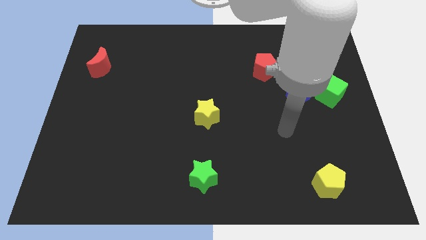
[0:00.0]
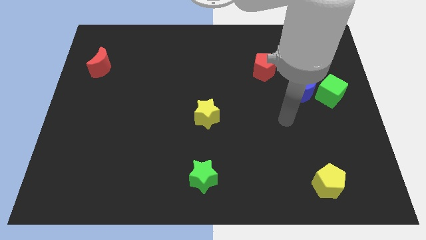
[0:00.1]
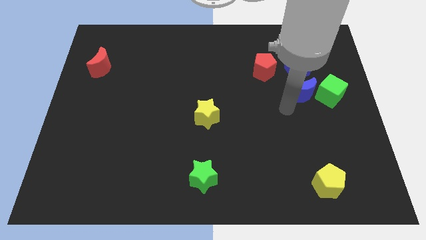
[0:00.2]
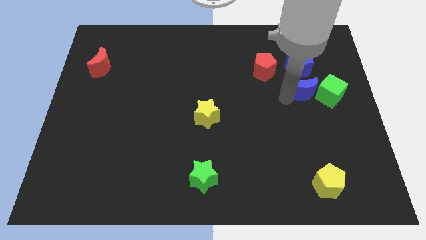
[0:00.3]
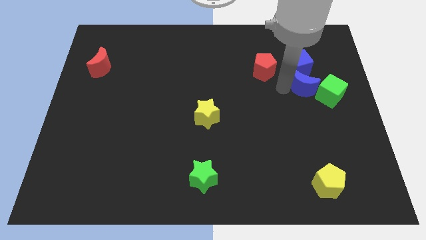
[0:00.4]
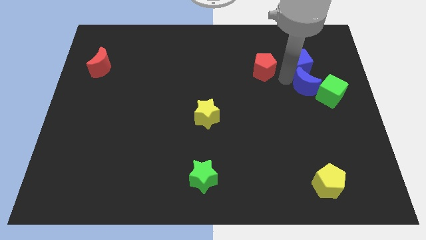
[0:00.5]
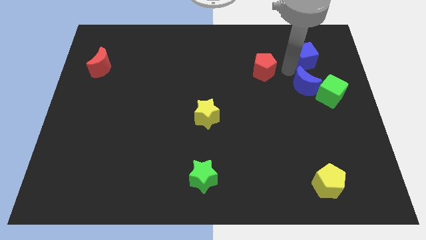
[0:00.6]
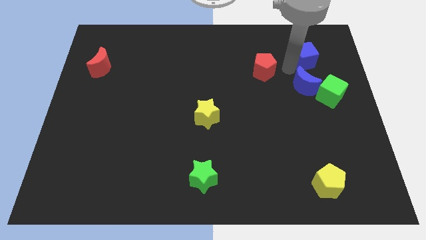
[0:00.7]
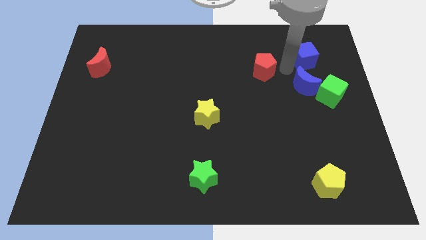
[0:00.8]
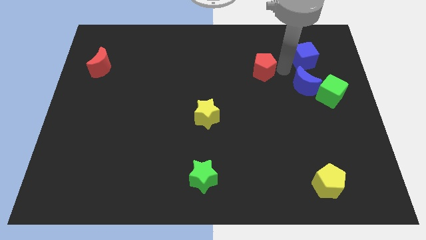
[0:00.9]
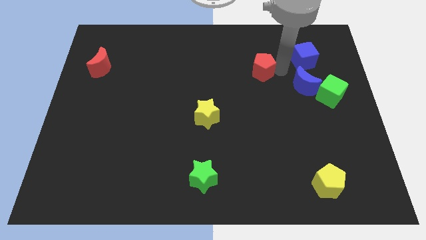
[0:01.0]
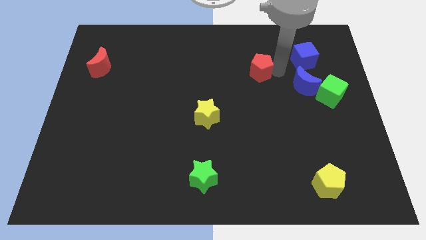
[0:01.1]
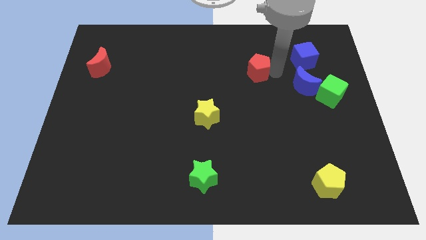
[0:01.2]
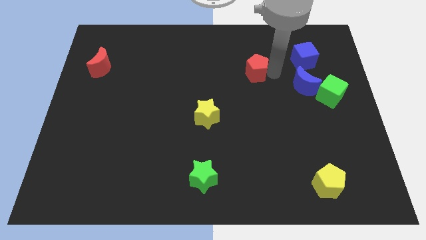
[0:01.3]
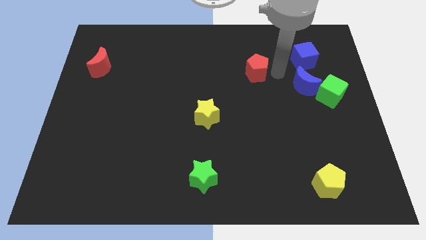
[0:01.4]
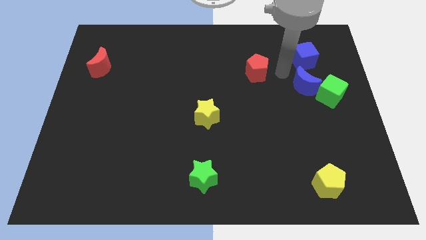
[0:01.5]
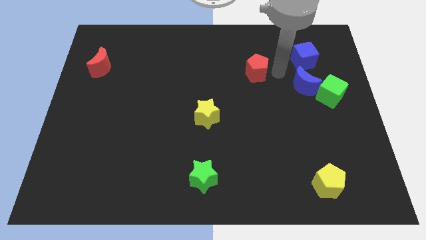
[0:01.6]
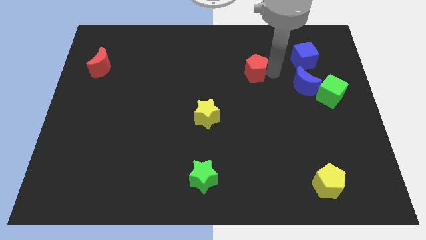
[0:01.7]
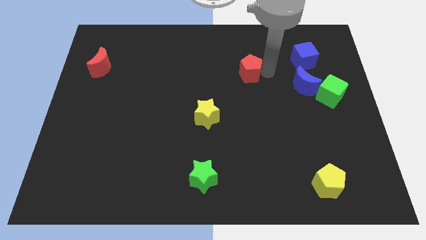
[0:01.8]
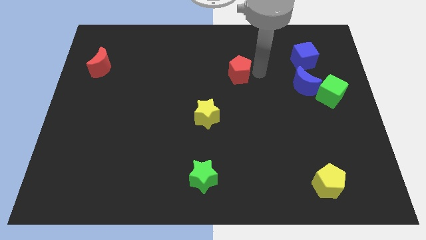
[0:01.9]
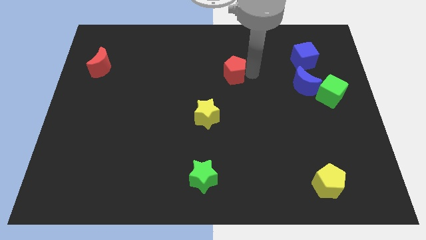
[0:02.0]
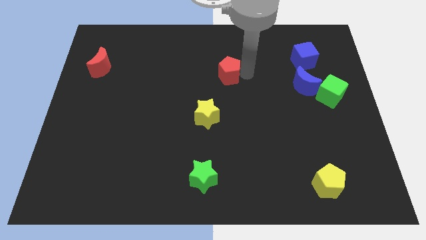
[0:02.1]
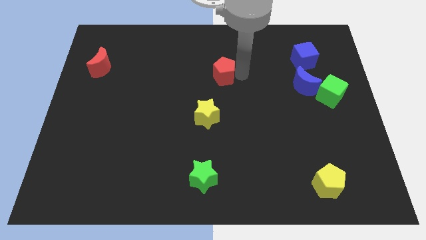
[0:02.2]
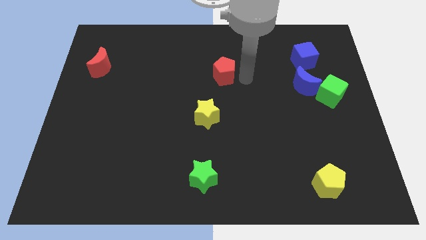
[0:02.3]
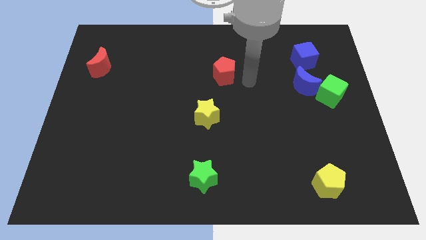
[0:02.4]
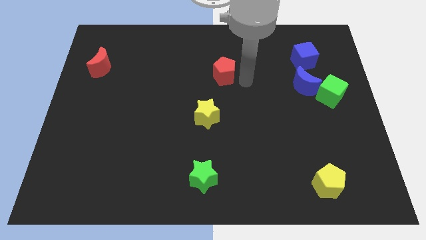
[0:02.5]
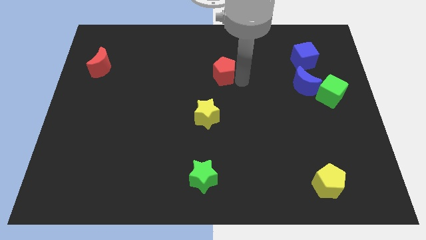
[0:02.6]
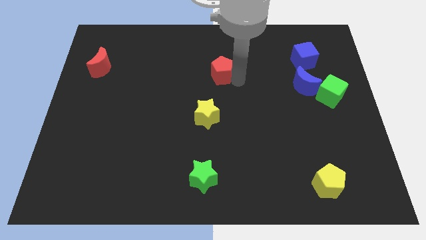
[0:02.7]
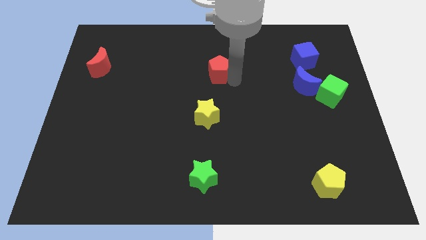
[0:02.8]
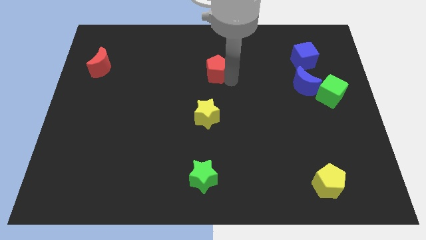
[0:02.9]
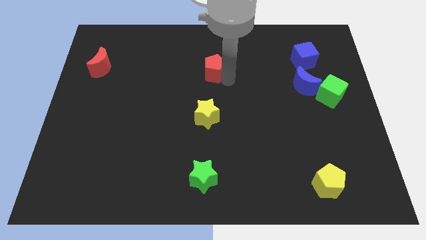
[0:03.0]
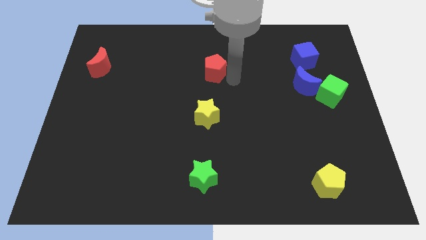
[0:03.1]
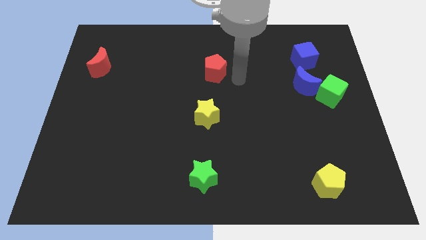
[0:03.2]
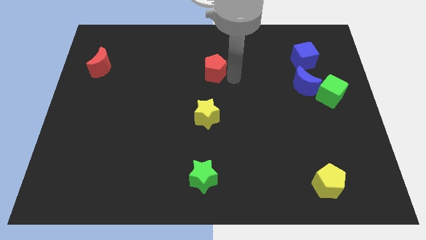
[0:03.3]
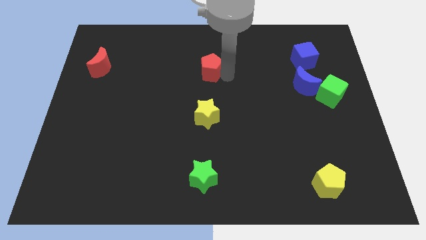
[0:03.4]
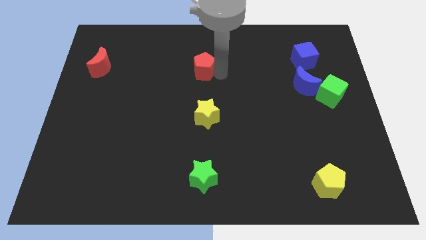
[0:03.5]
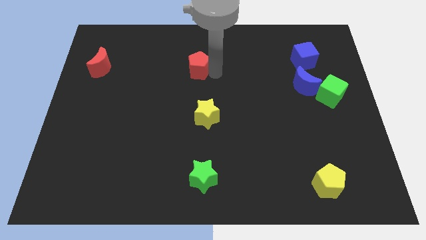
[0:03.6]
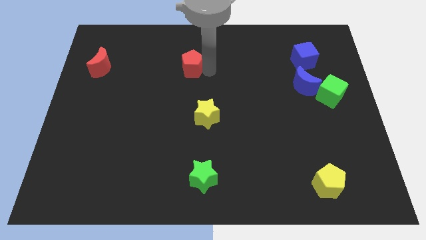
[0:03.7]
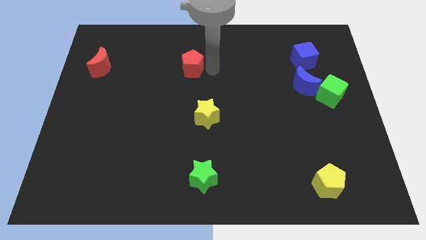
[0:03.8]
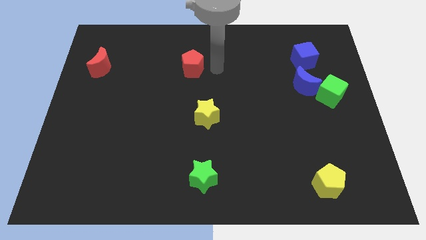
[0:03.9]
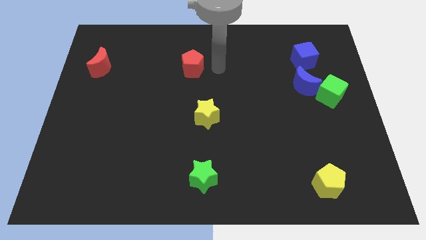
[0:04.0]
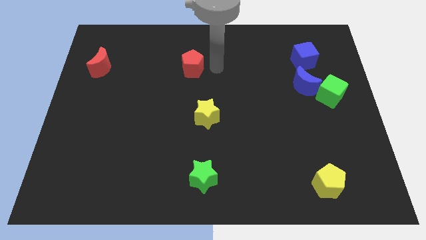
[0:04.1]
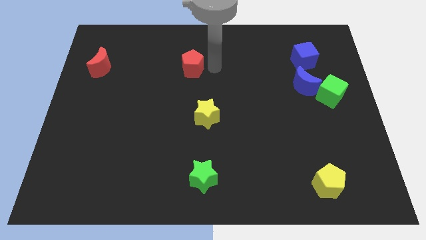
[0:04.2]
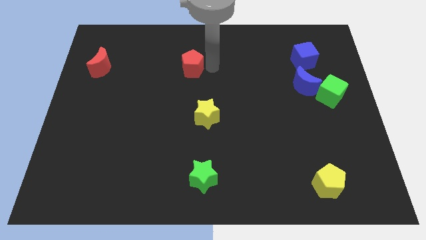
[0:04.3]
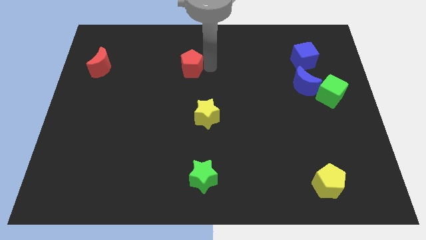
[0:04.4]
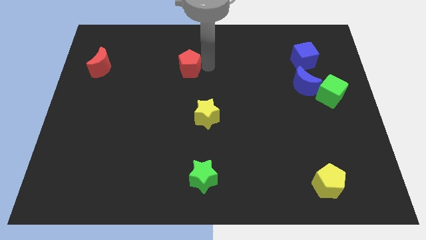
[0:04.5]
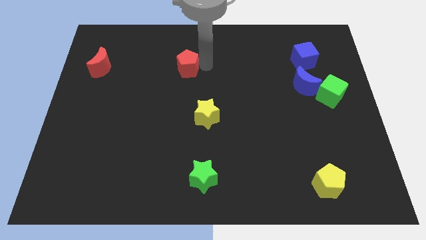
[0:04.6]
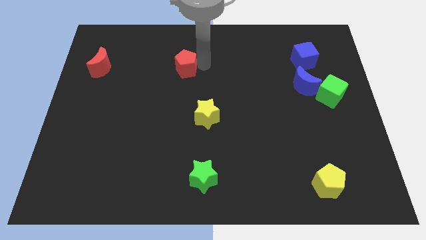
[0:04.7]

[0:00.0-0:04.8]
slide the red pentagon left

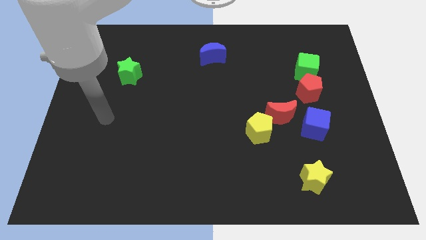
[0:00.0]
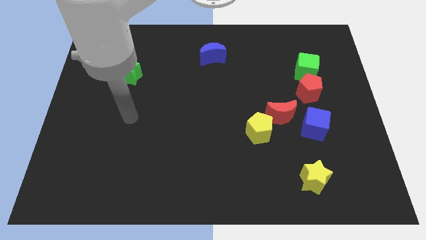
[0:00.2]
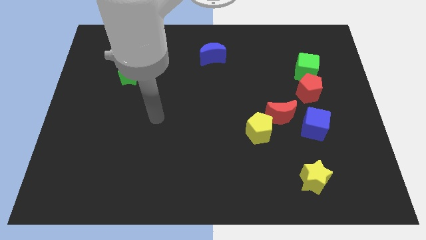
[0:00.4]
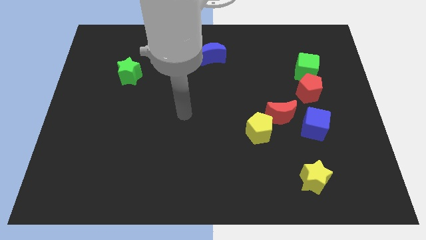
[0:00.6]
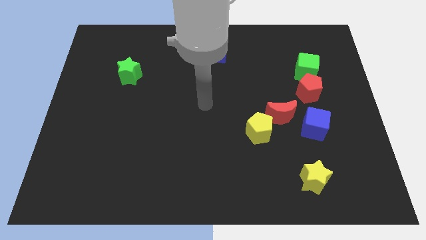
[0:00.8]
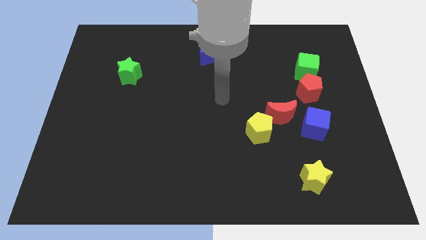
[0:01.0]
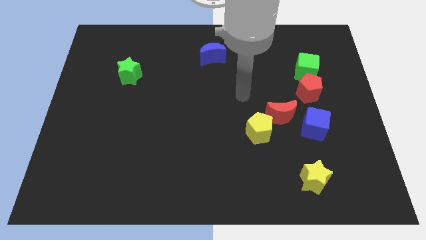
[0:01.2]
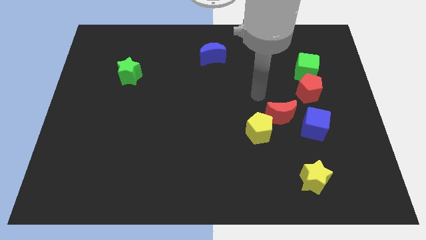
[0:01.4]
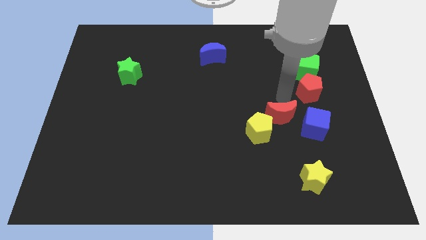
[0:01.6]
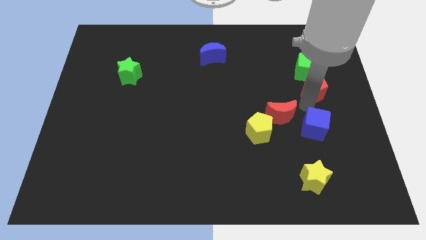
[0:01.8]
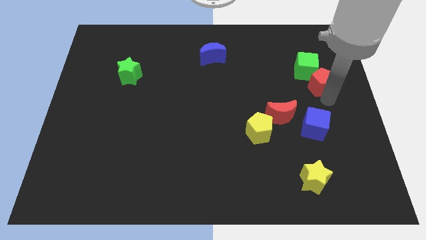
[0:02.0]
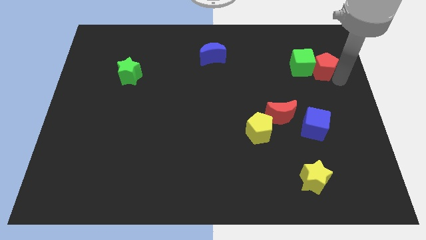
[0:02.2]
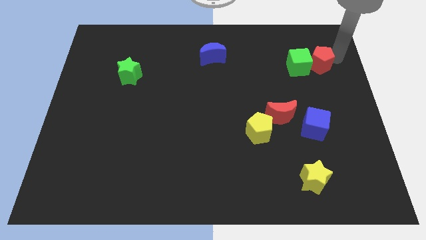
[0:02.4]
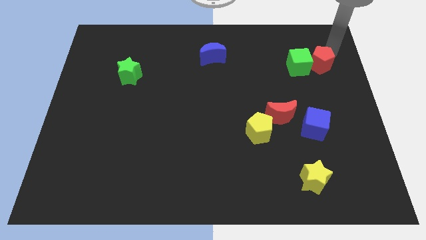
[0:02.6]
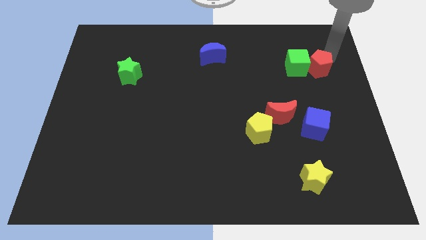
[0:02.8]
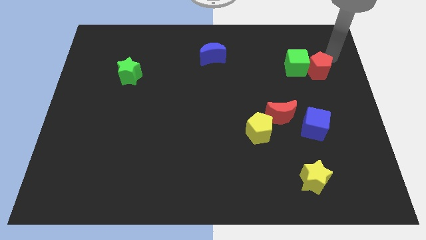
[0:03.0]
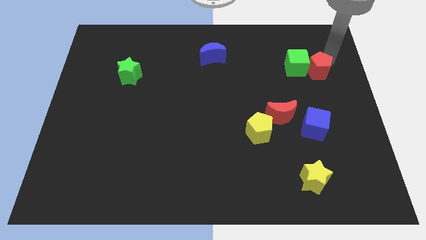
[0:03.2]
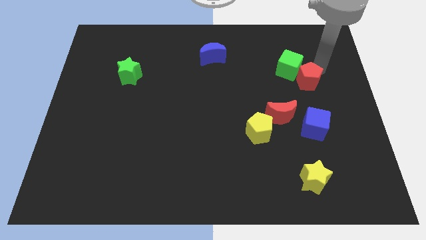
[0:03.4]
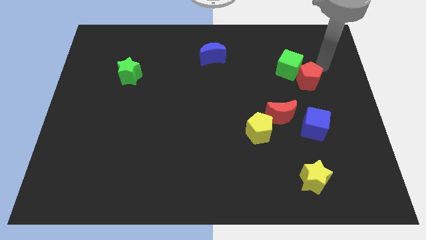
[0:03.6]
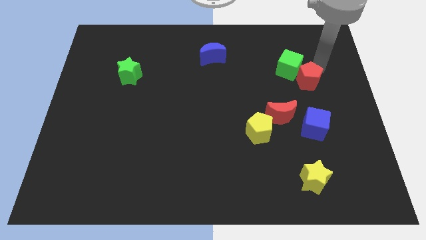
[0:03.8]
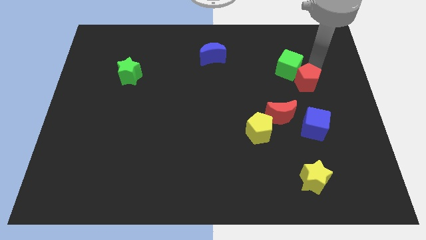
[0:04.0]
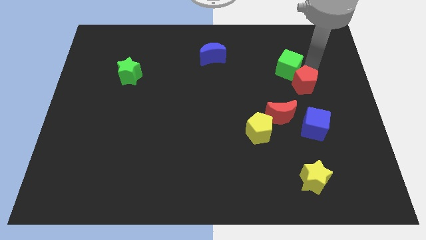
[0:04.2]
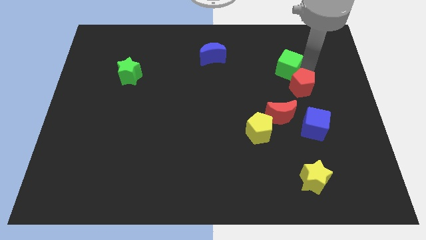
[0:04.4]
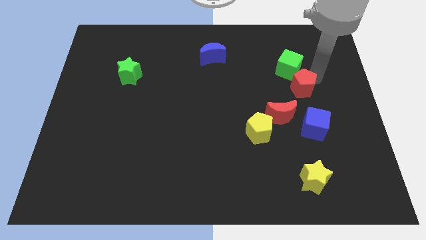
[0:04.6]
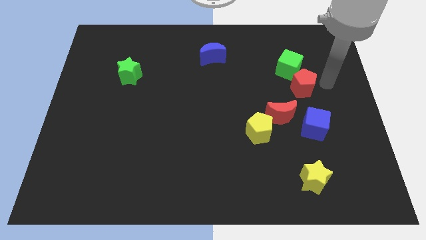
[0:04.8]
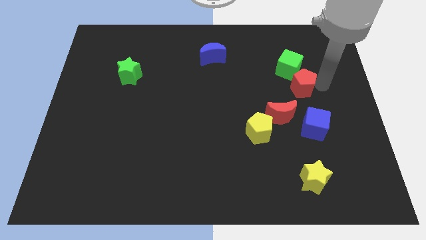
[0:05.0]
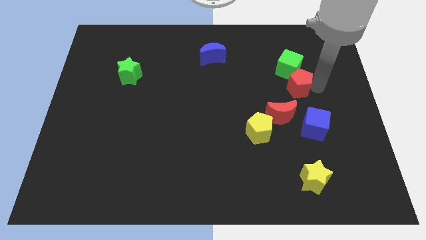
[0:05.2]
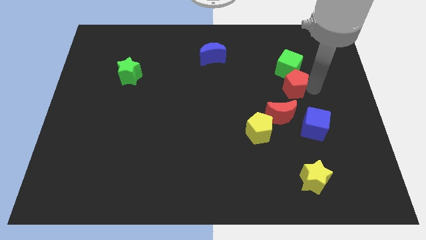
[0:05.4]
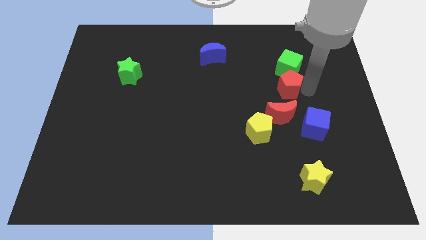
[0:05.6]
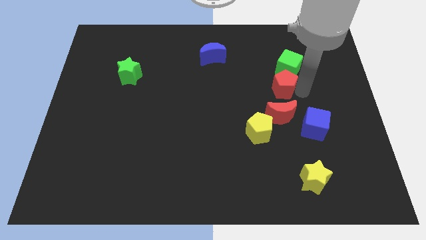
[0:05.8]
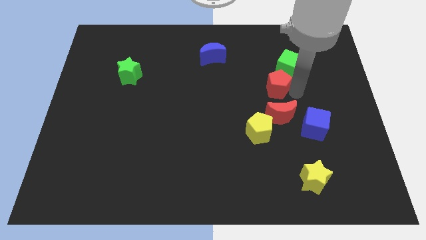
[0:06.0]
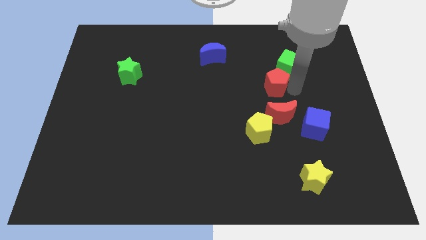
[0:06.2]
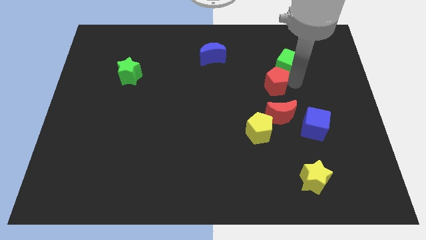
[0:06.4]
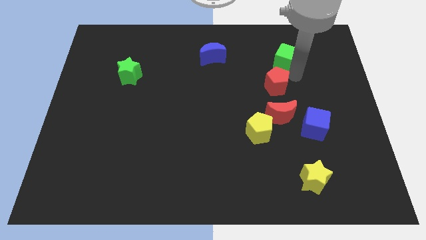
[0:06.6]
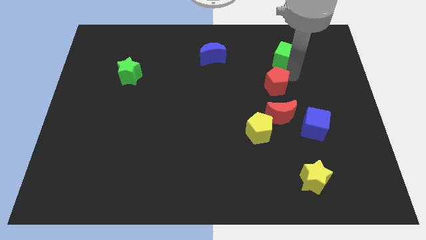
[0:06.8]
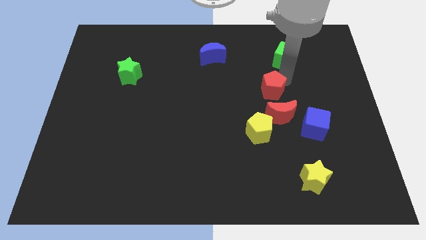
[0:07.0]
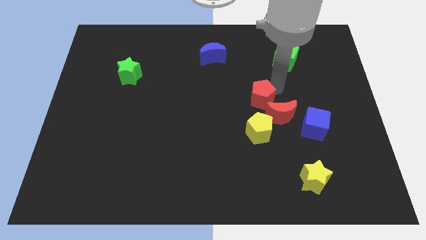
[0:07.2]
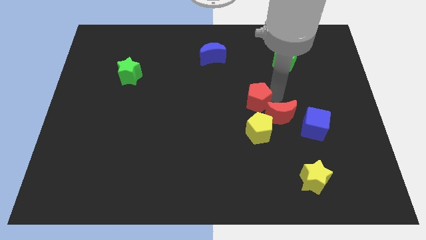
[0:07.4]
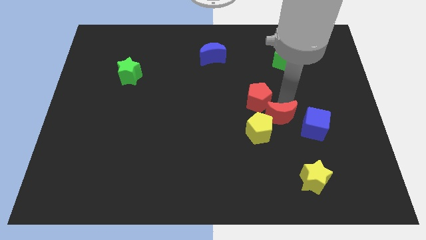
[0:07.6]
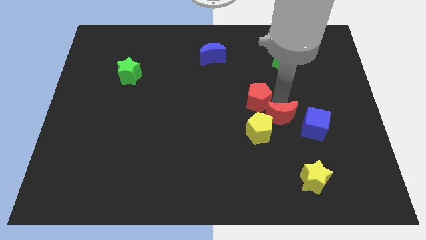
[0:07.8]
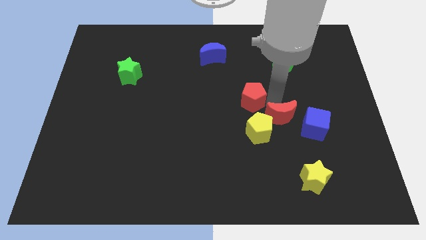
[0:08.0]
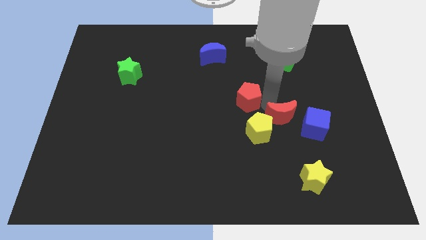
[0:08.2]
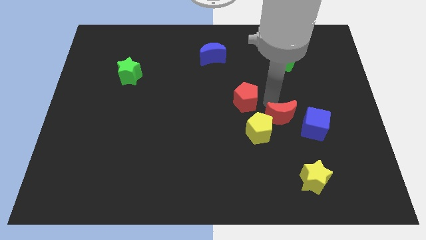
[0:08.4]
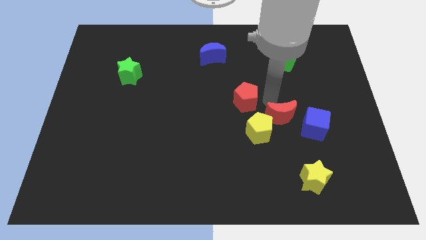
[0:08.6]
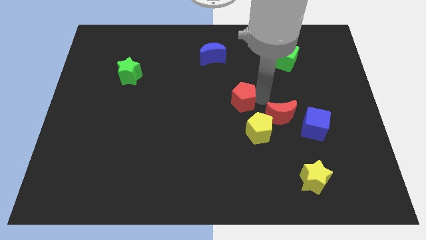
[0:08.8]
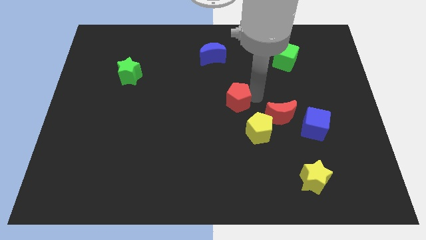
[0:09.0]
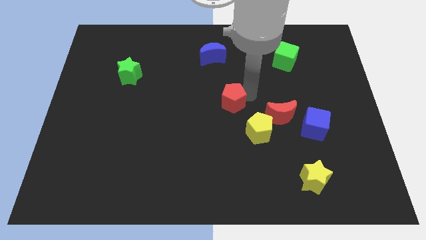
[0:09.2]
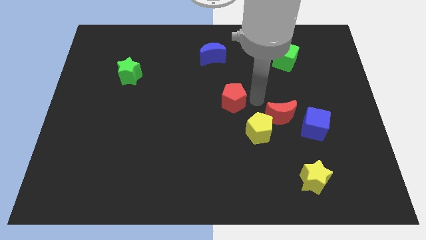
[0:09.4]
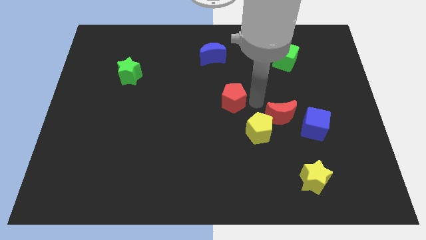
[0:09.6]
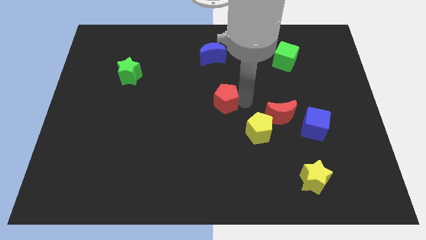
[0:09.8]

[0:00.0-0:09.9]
push the red pentagon left
